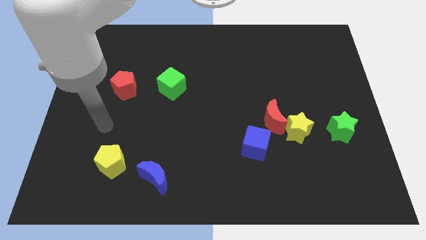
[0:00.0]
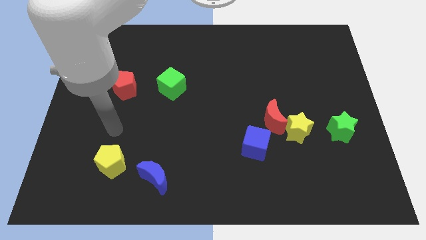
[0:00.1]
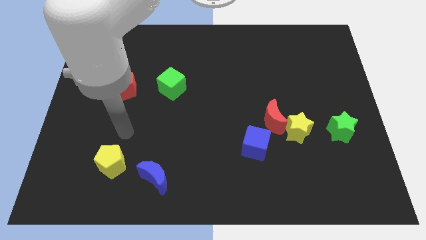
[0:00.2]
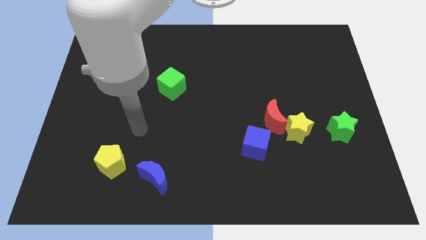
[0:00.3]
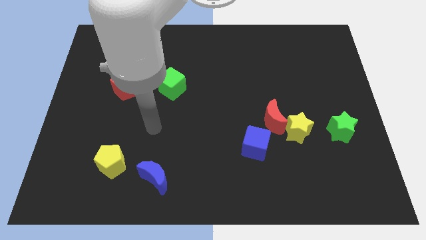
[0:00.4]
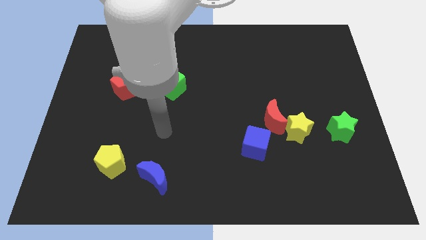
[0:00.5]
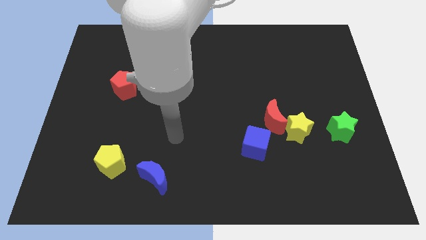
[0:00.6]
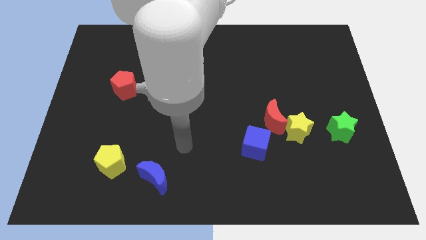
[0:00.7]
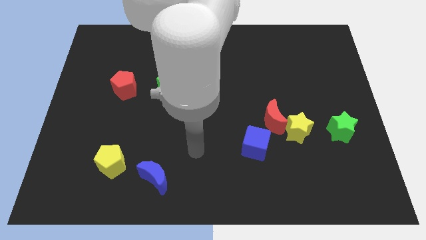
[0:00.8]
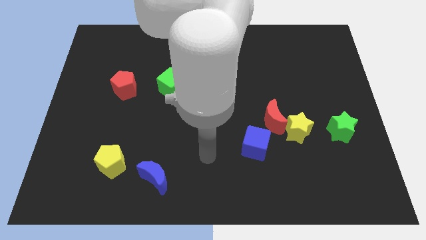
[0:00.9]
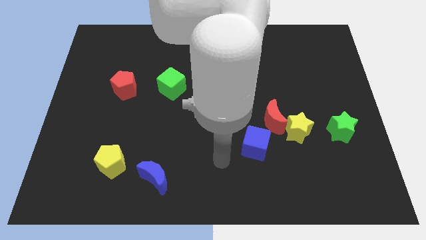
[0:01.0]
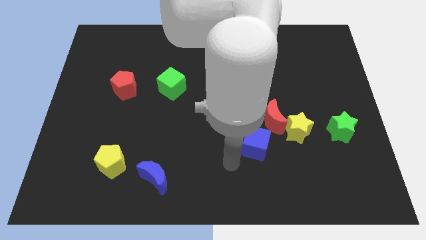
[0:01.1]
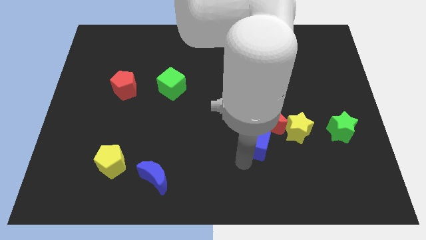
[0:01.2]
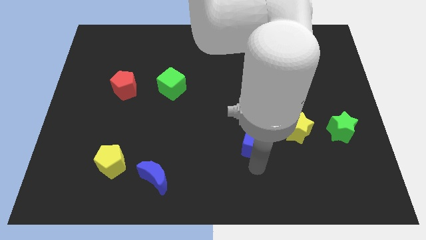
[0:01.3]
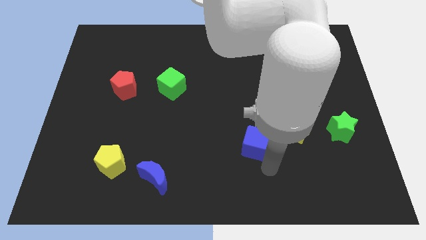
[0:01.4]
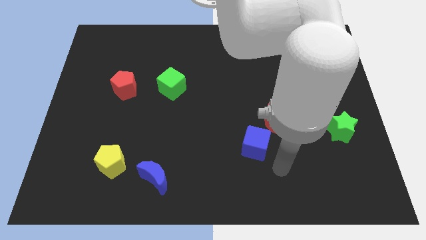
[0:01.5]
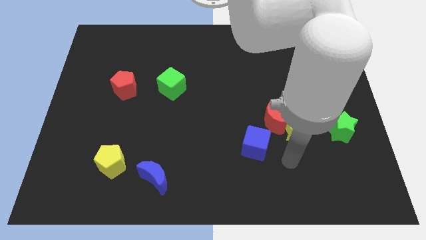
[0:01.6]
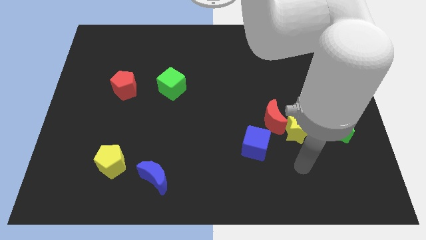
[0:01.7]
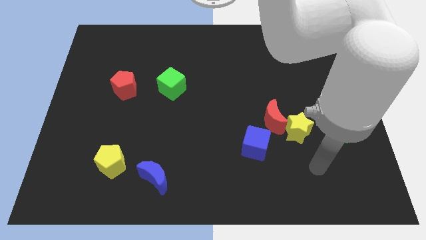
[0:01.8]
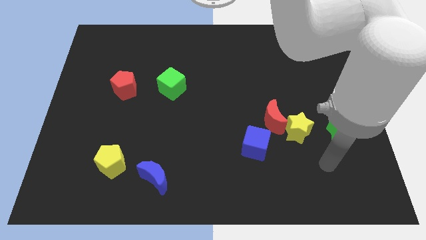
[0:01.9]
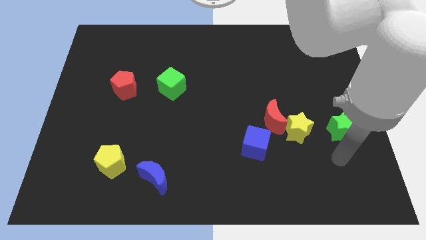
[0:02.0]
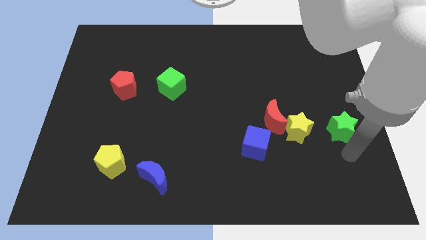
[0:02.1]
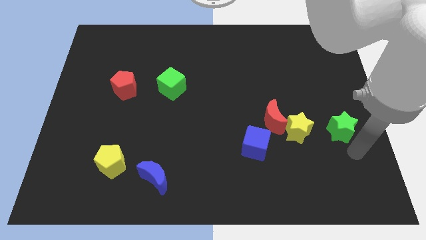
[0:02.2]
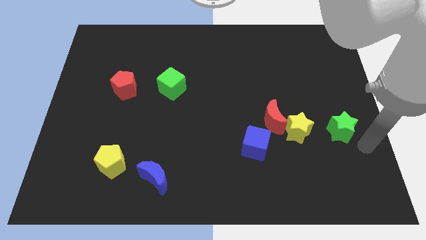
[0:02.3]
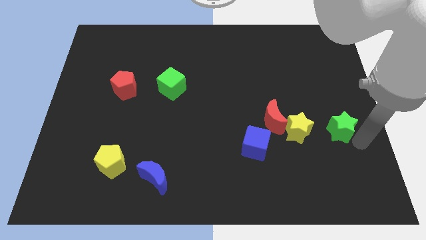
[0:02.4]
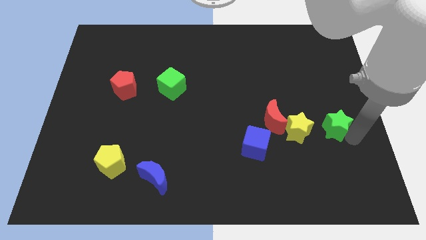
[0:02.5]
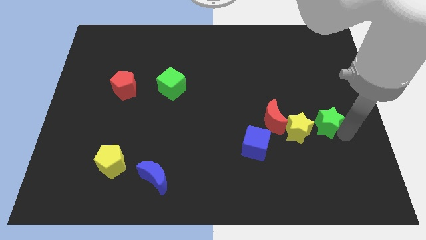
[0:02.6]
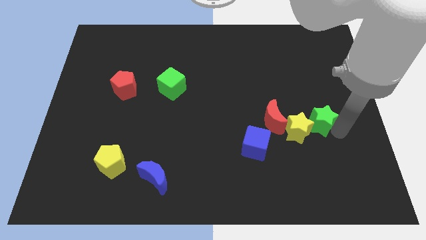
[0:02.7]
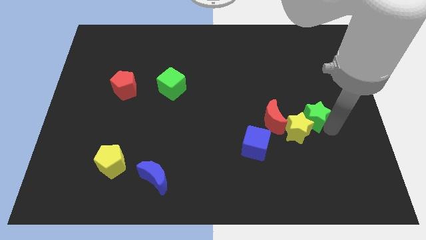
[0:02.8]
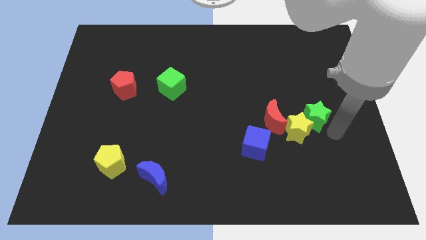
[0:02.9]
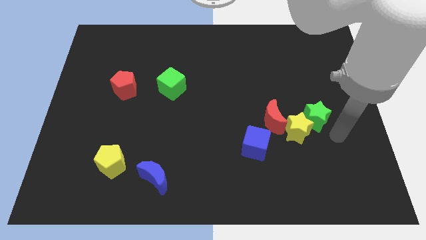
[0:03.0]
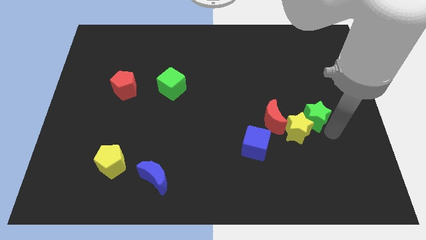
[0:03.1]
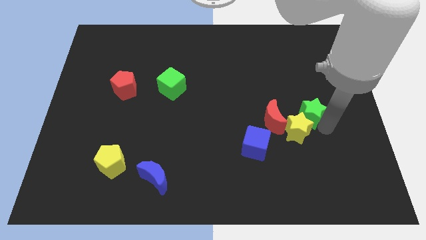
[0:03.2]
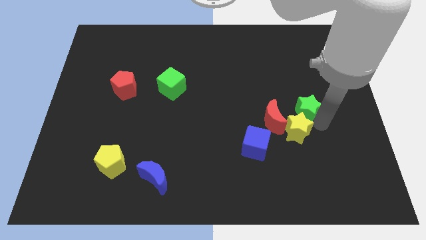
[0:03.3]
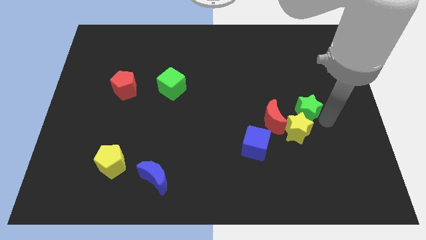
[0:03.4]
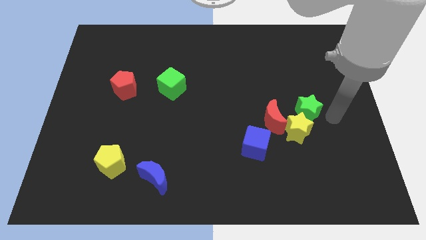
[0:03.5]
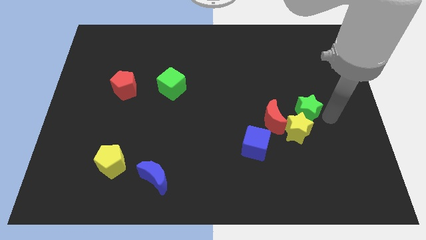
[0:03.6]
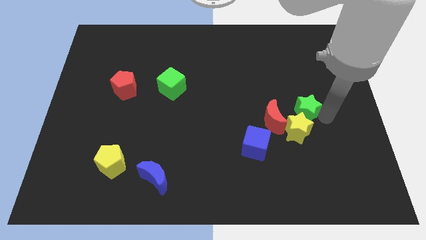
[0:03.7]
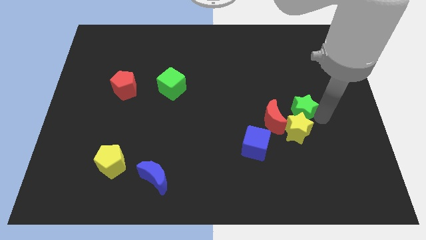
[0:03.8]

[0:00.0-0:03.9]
push the green star a little left

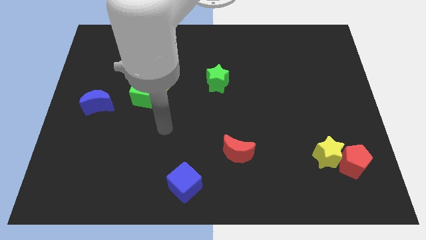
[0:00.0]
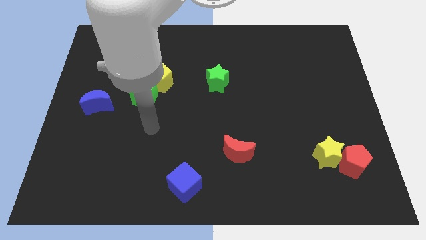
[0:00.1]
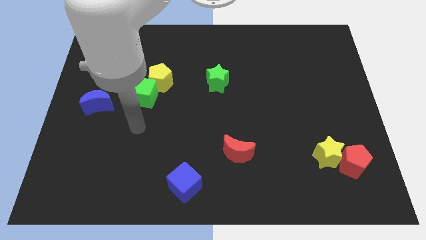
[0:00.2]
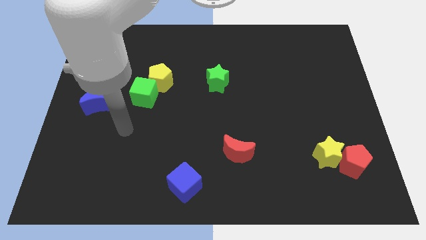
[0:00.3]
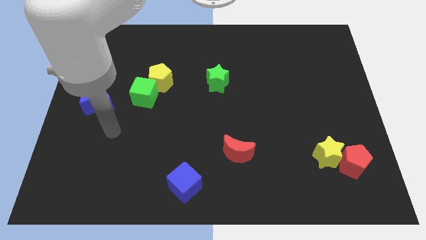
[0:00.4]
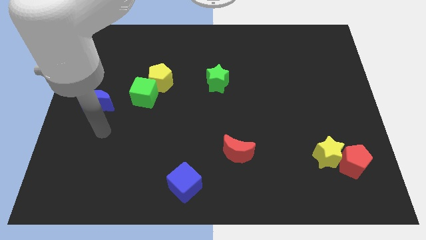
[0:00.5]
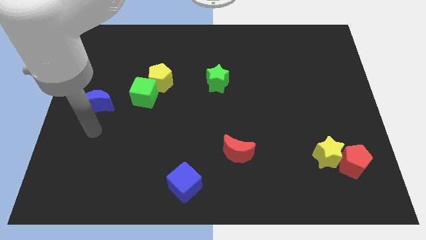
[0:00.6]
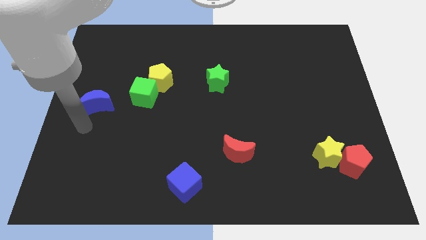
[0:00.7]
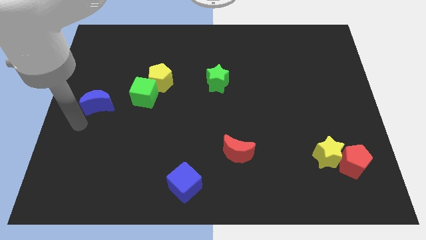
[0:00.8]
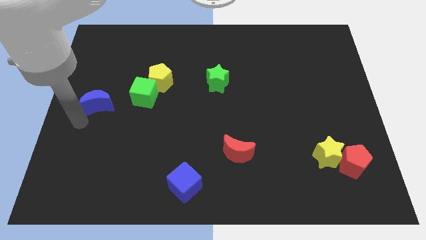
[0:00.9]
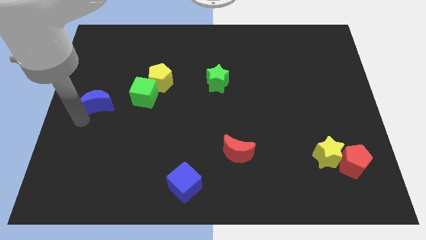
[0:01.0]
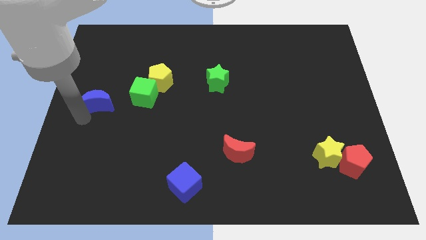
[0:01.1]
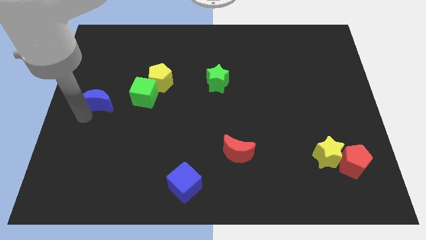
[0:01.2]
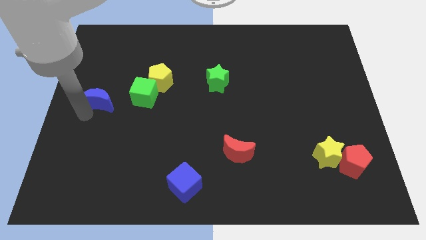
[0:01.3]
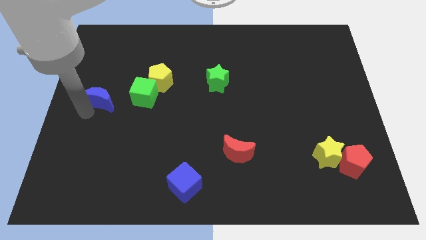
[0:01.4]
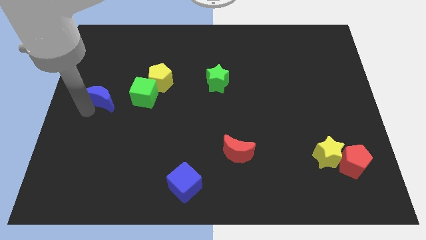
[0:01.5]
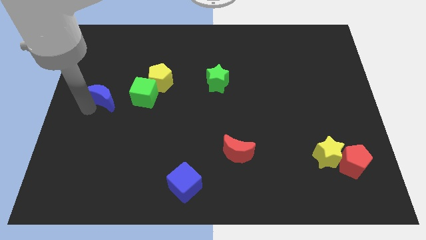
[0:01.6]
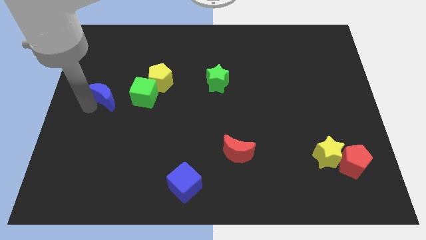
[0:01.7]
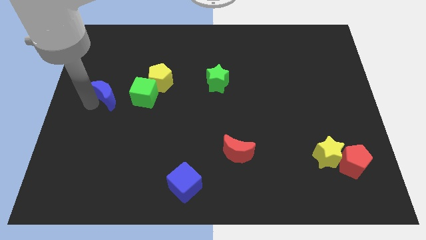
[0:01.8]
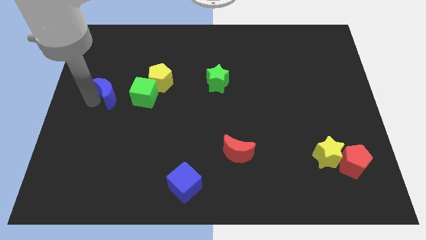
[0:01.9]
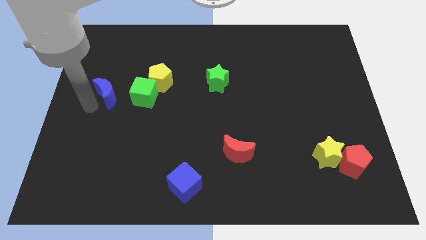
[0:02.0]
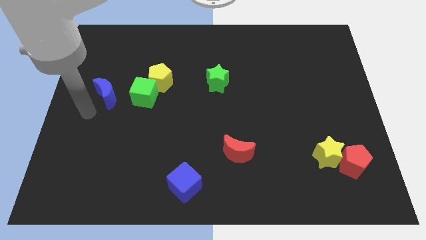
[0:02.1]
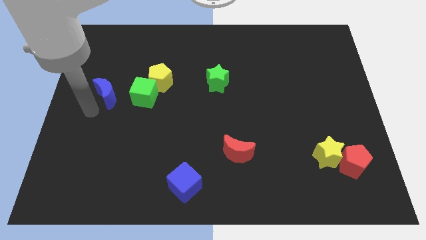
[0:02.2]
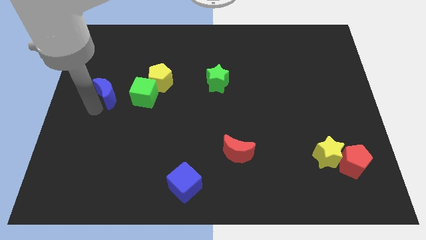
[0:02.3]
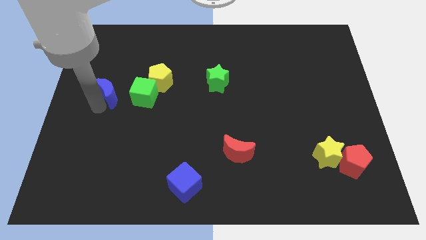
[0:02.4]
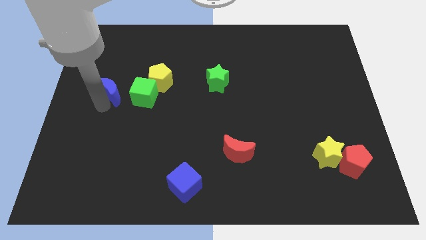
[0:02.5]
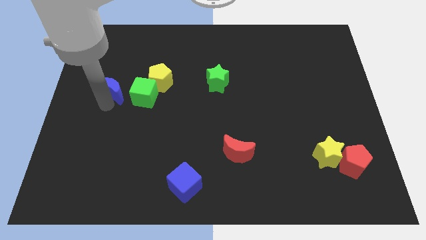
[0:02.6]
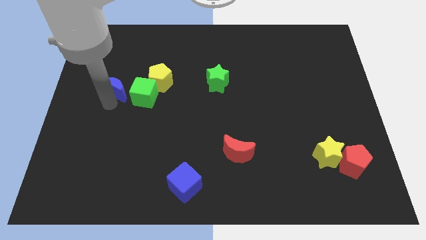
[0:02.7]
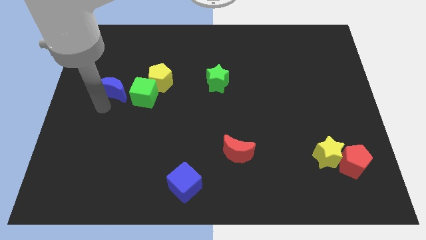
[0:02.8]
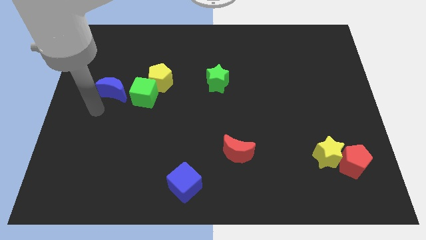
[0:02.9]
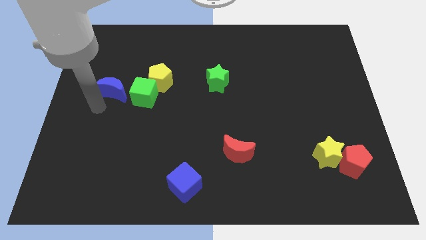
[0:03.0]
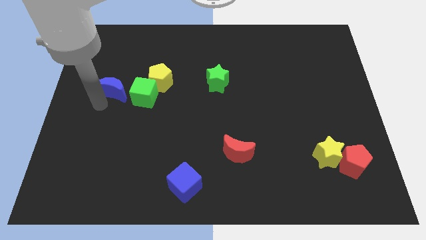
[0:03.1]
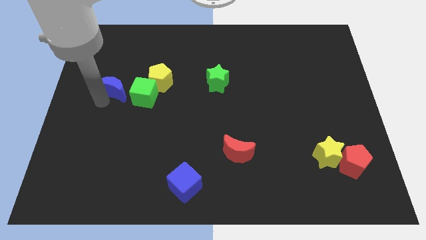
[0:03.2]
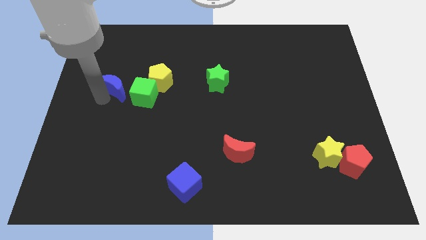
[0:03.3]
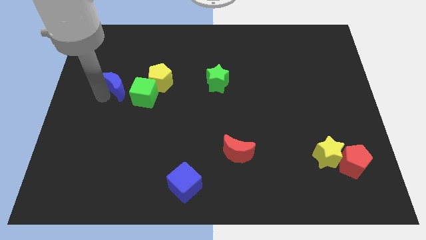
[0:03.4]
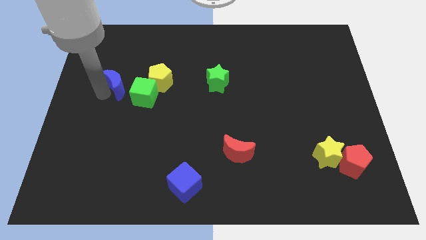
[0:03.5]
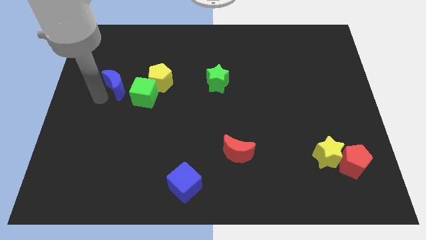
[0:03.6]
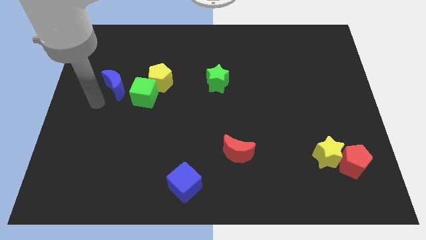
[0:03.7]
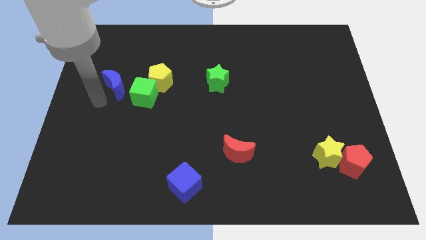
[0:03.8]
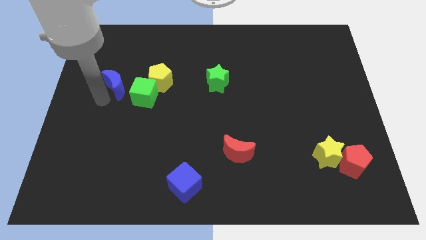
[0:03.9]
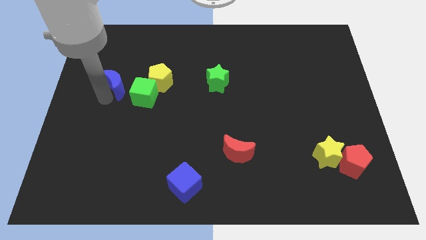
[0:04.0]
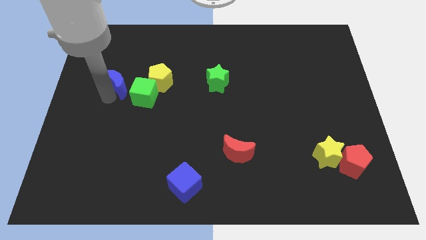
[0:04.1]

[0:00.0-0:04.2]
slightly slide the blue moon diagonally upwards and to the right
